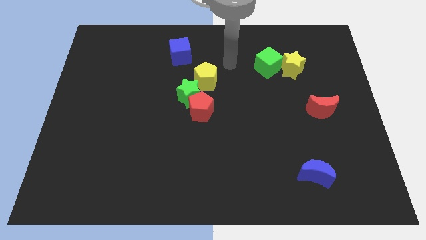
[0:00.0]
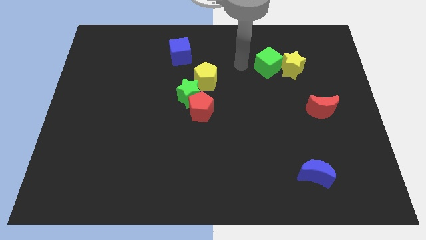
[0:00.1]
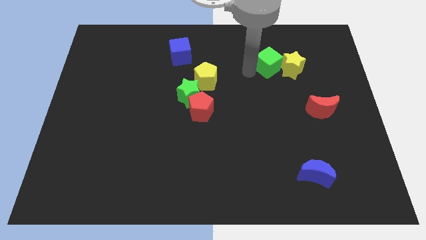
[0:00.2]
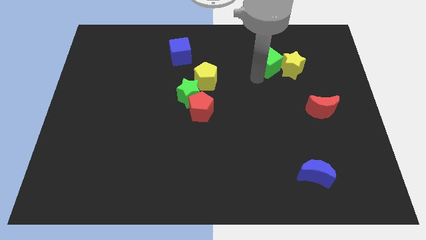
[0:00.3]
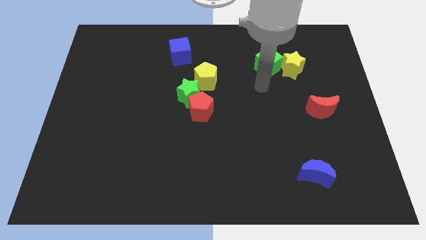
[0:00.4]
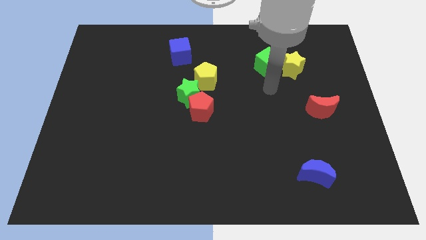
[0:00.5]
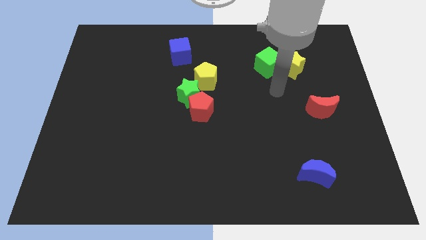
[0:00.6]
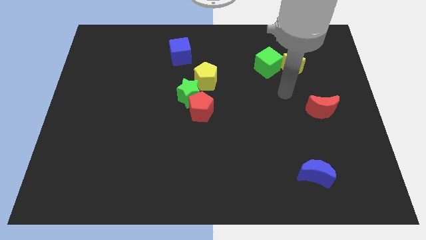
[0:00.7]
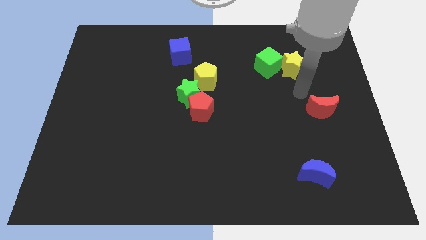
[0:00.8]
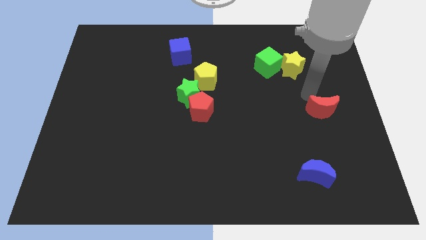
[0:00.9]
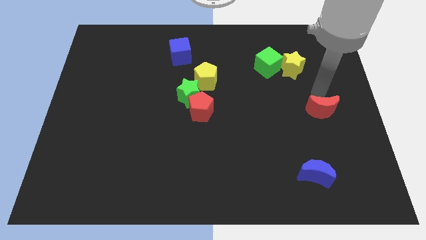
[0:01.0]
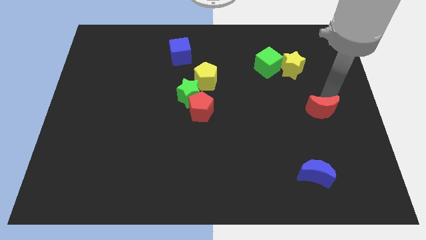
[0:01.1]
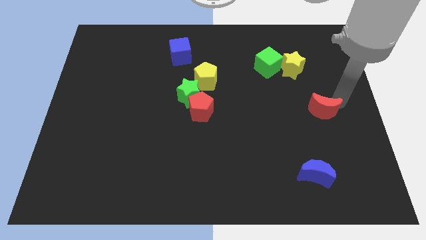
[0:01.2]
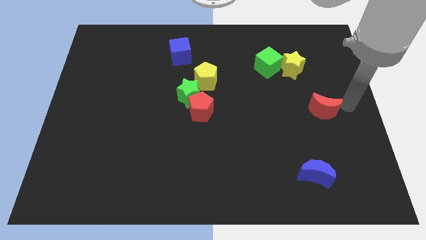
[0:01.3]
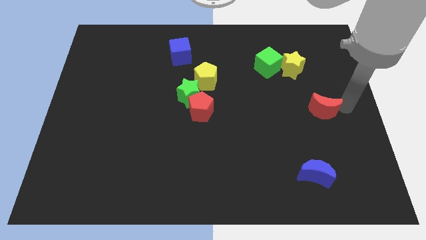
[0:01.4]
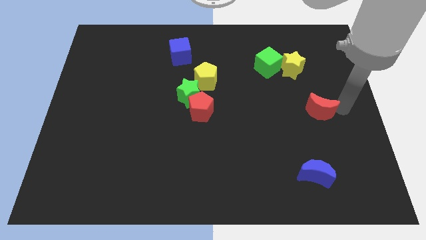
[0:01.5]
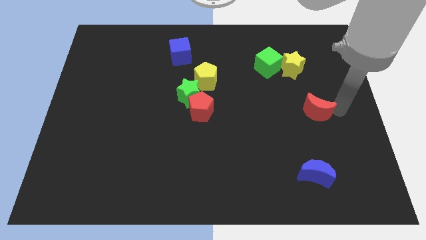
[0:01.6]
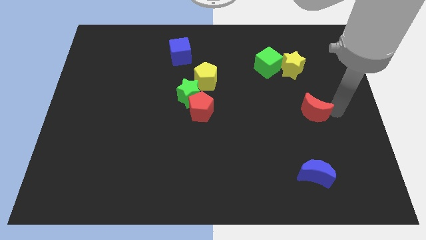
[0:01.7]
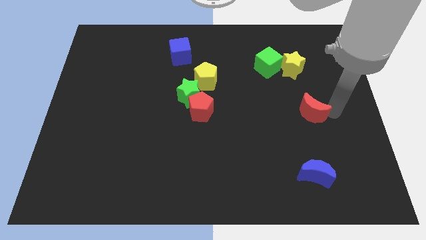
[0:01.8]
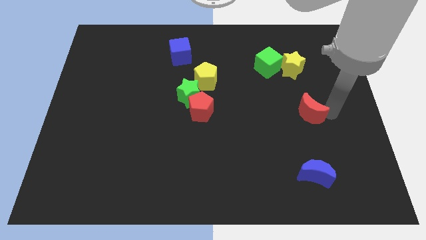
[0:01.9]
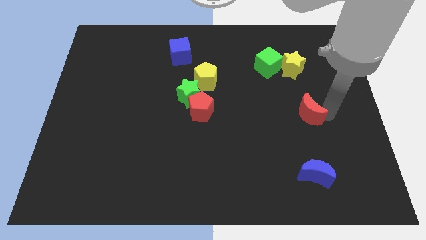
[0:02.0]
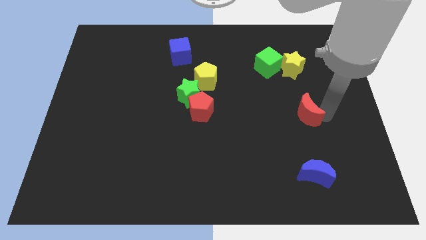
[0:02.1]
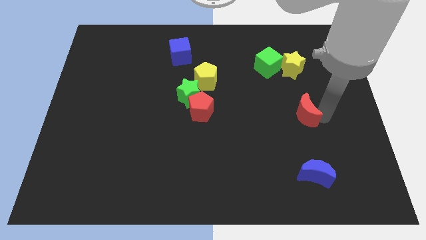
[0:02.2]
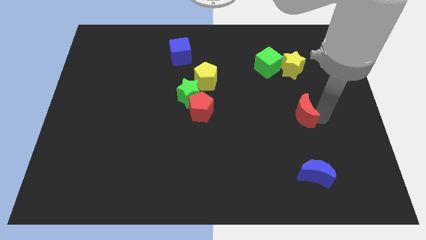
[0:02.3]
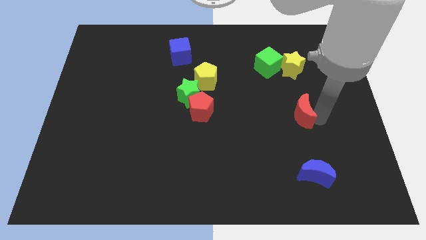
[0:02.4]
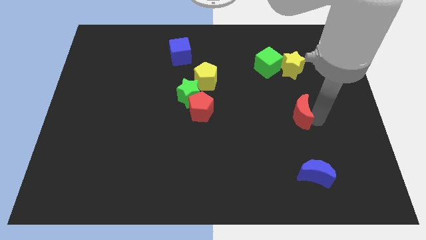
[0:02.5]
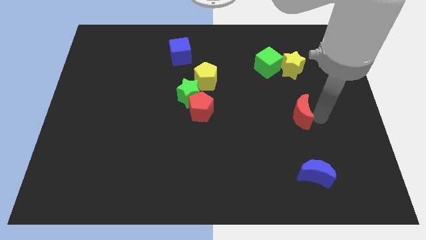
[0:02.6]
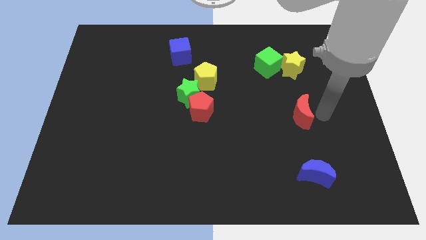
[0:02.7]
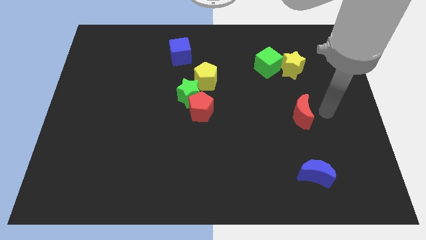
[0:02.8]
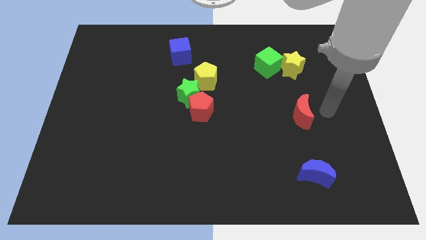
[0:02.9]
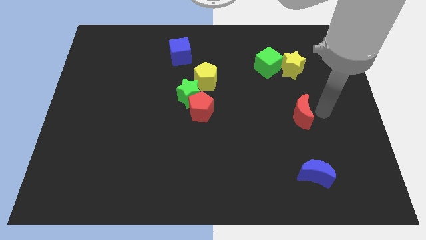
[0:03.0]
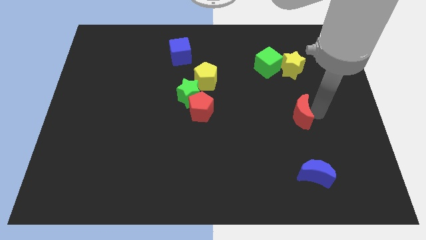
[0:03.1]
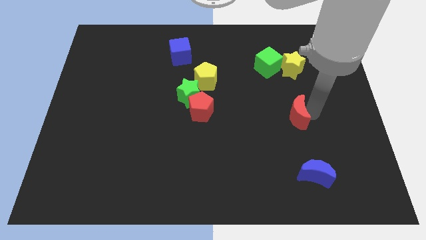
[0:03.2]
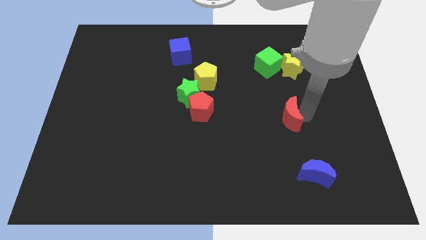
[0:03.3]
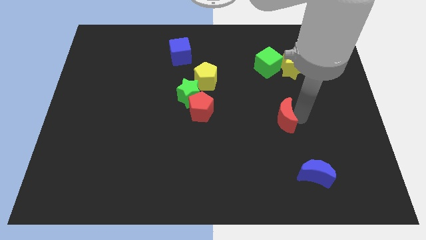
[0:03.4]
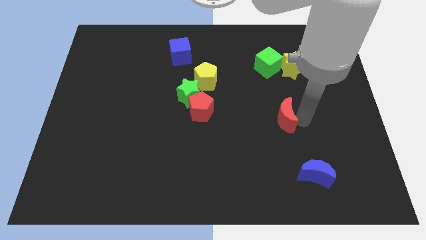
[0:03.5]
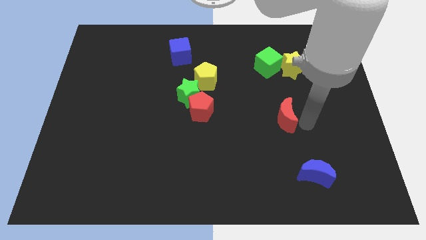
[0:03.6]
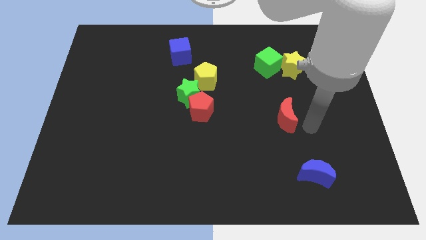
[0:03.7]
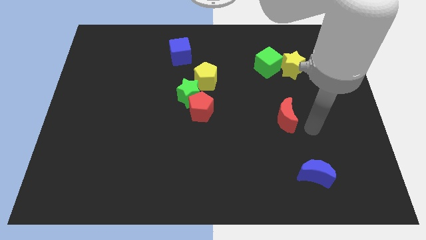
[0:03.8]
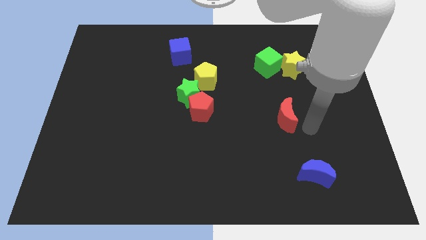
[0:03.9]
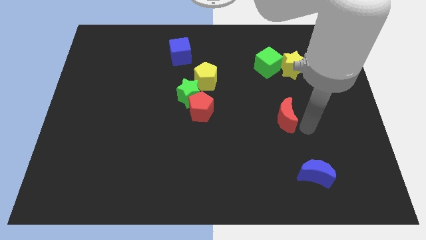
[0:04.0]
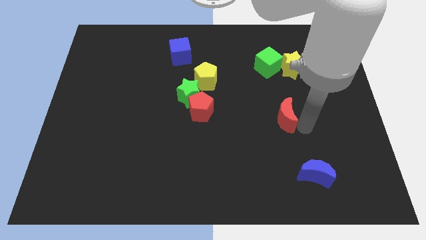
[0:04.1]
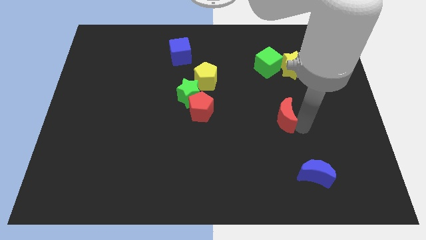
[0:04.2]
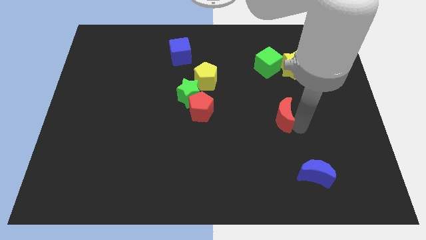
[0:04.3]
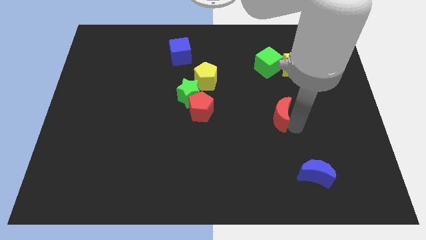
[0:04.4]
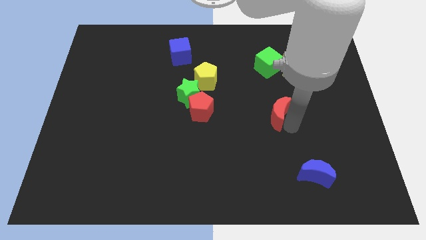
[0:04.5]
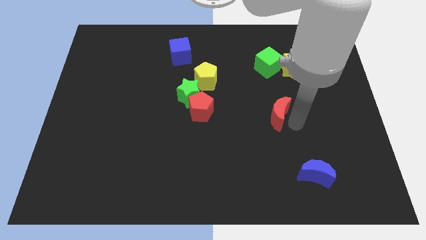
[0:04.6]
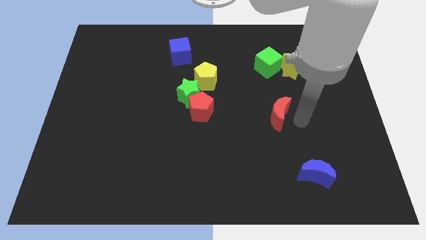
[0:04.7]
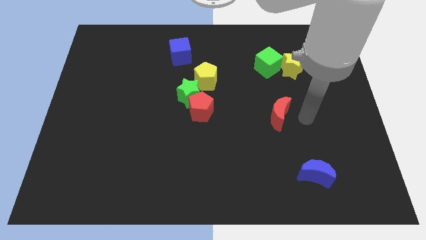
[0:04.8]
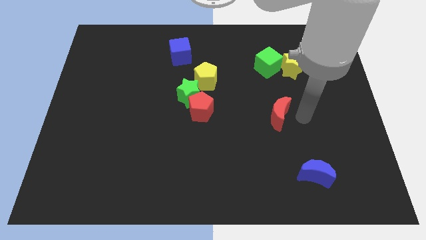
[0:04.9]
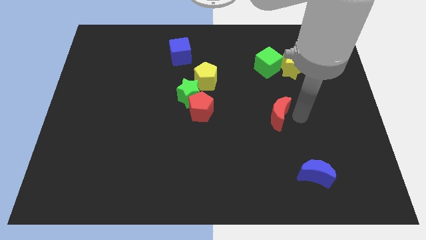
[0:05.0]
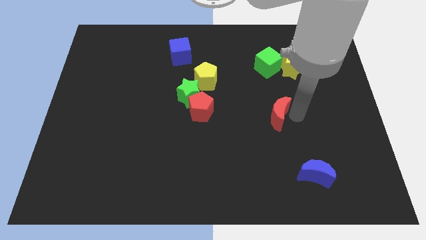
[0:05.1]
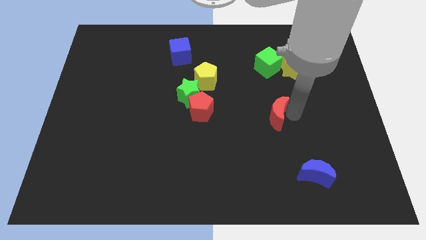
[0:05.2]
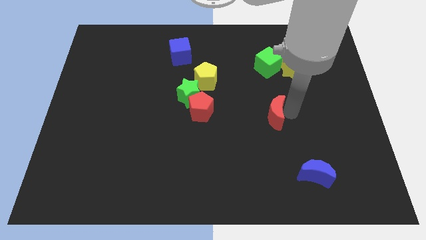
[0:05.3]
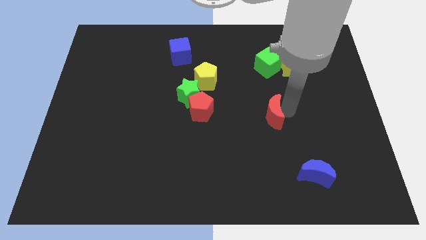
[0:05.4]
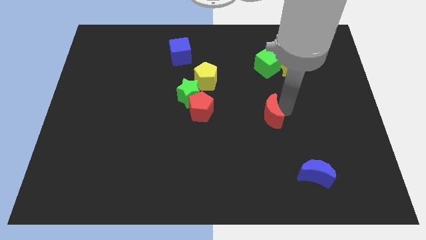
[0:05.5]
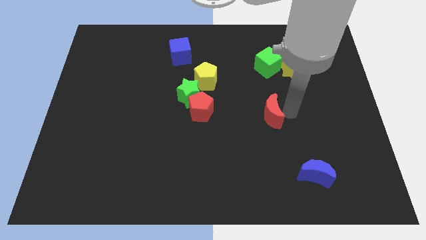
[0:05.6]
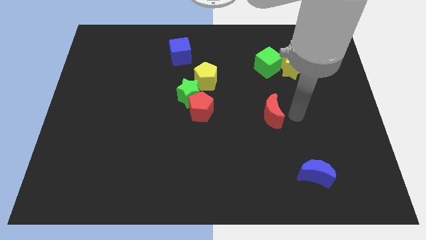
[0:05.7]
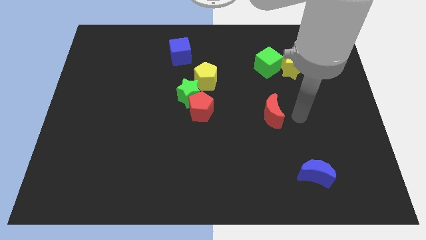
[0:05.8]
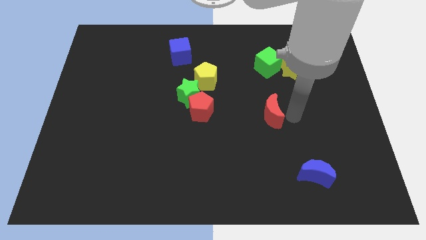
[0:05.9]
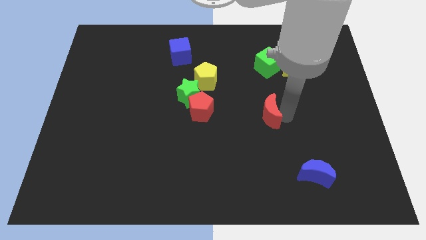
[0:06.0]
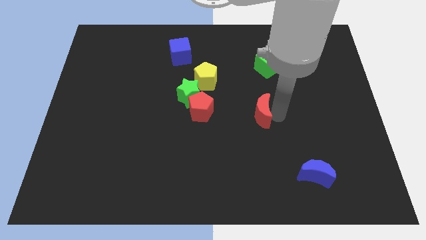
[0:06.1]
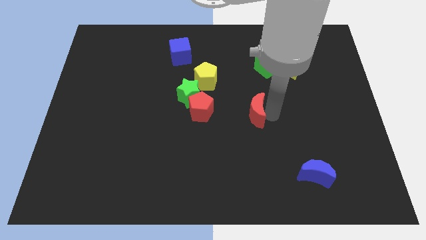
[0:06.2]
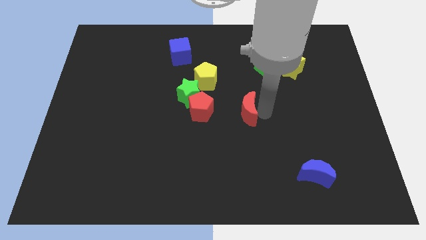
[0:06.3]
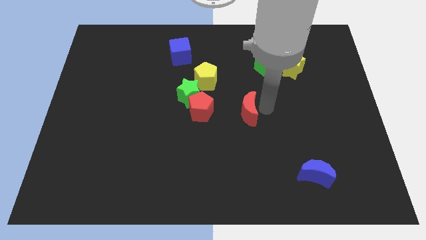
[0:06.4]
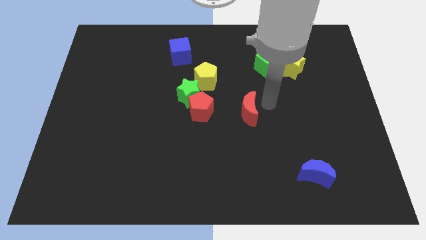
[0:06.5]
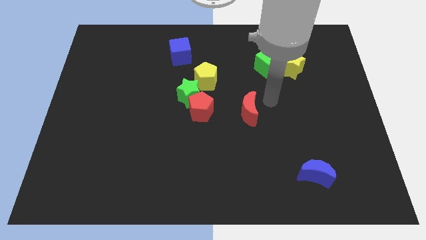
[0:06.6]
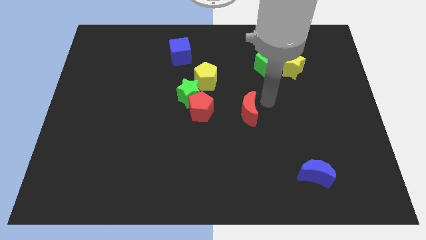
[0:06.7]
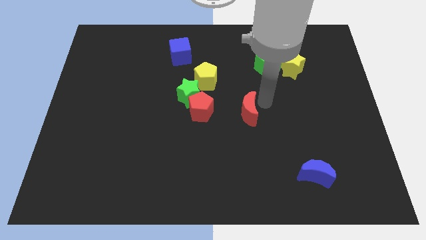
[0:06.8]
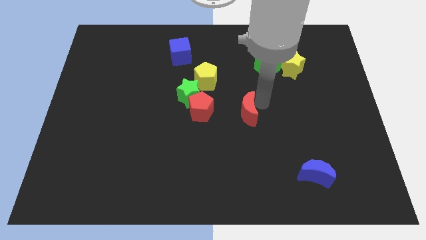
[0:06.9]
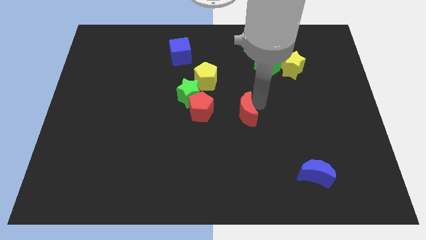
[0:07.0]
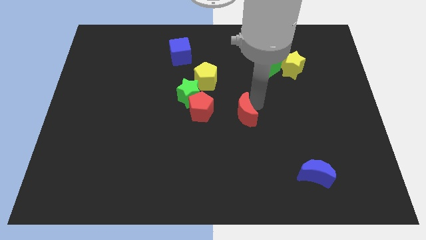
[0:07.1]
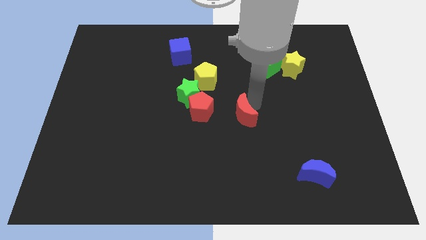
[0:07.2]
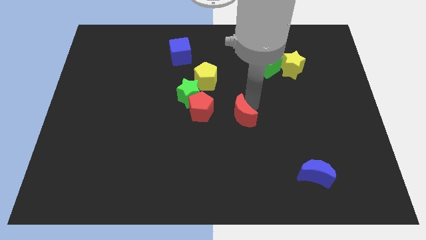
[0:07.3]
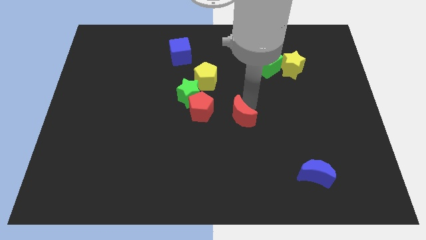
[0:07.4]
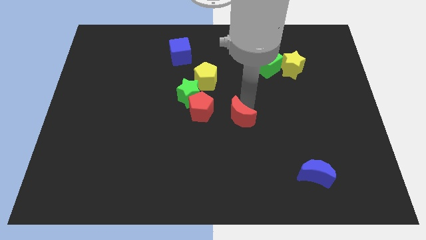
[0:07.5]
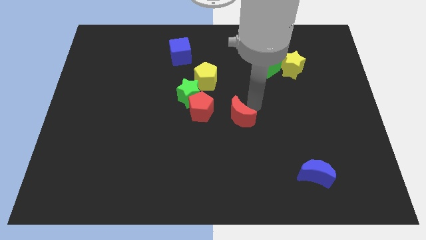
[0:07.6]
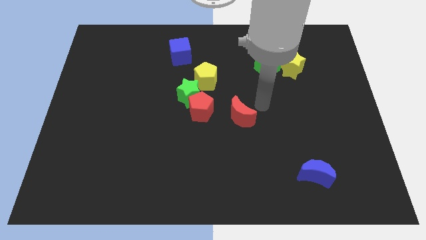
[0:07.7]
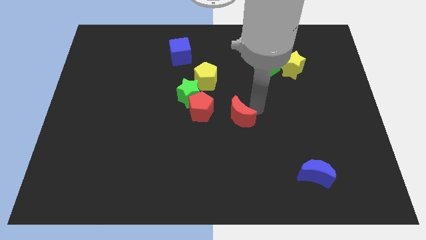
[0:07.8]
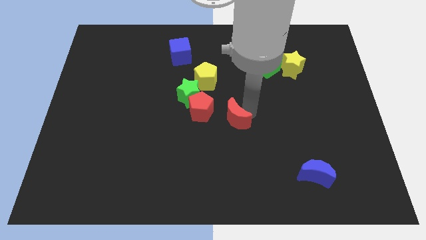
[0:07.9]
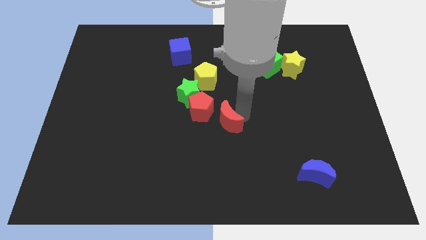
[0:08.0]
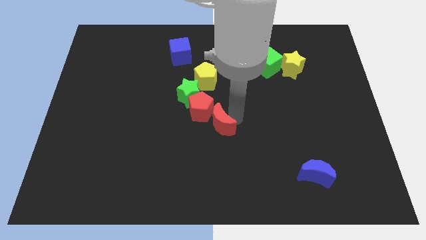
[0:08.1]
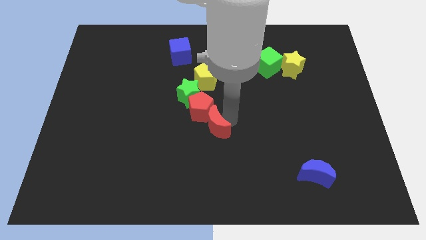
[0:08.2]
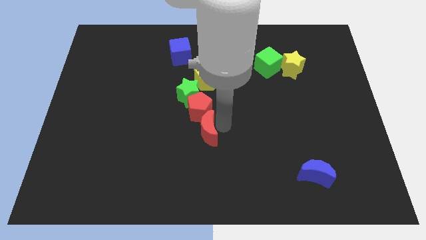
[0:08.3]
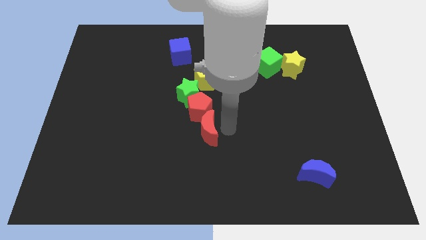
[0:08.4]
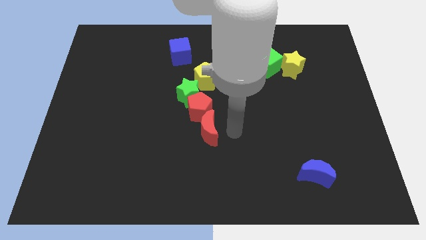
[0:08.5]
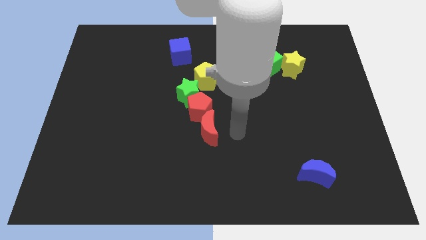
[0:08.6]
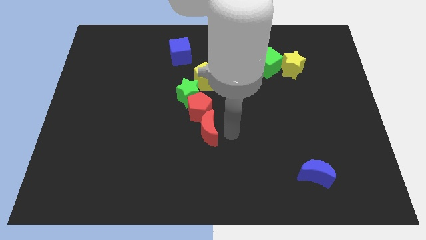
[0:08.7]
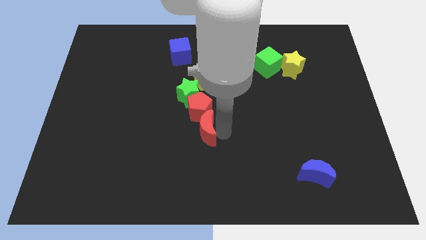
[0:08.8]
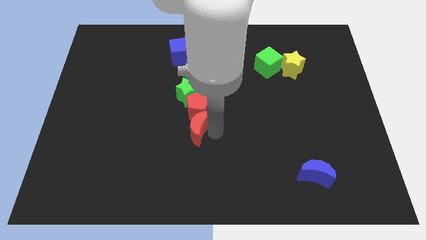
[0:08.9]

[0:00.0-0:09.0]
slide the red moon to the bottom left of the red pentagon
